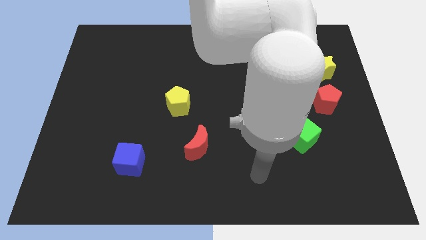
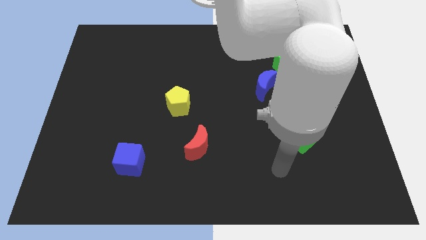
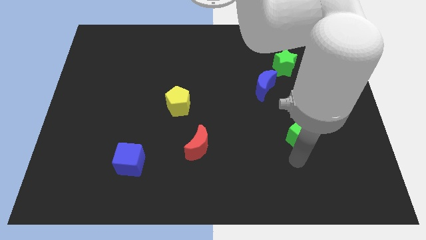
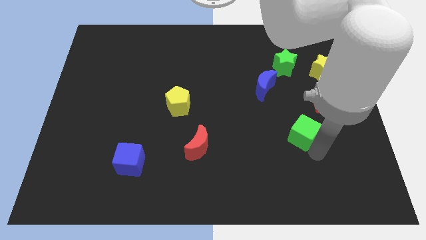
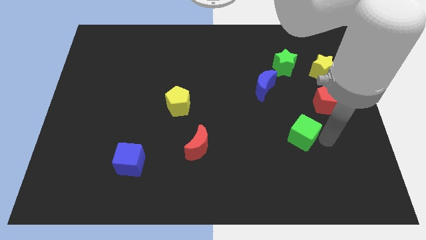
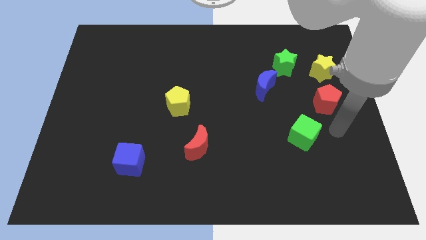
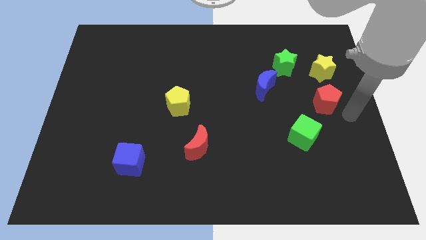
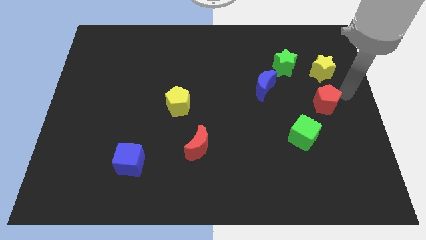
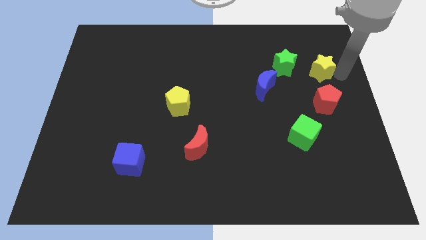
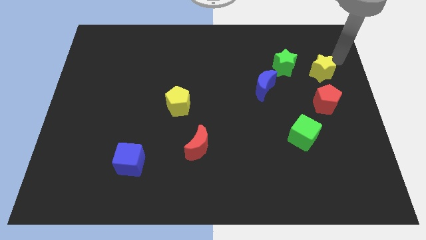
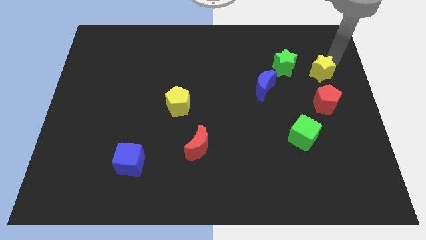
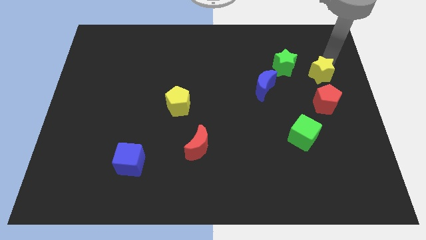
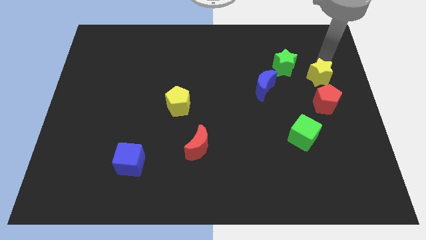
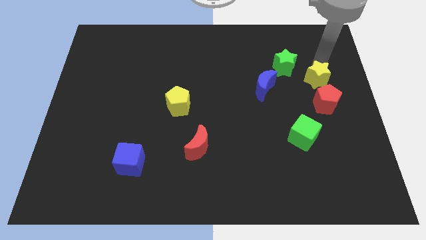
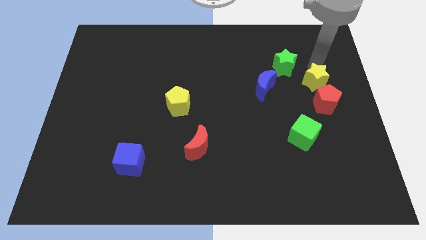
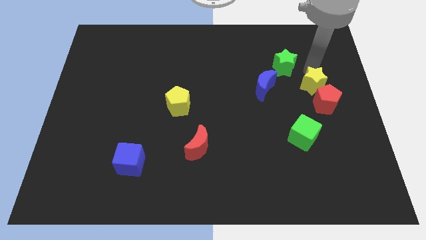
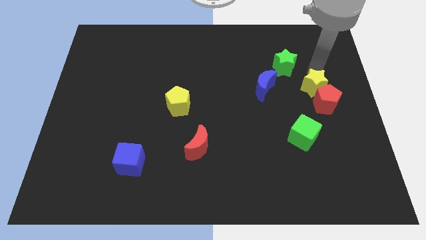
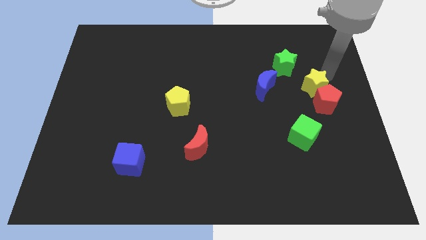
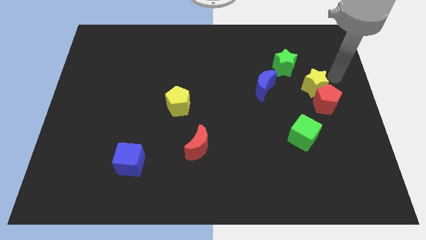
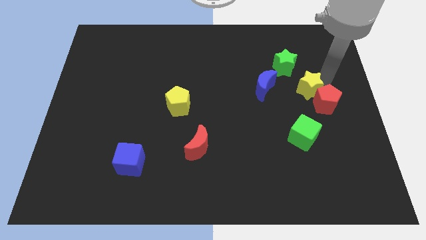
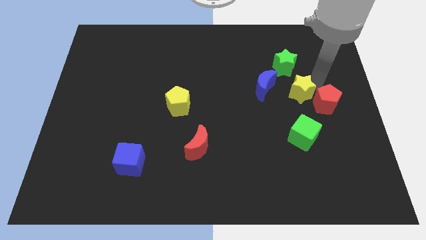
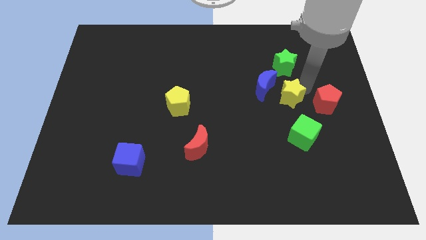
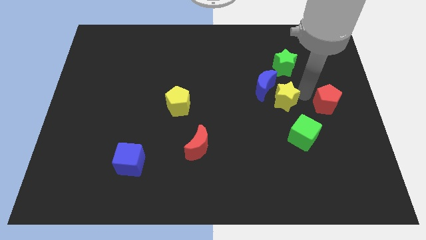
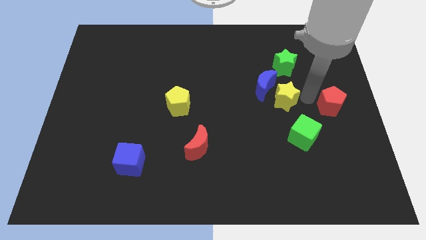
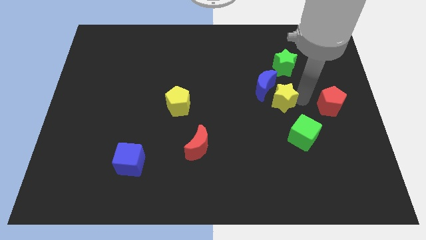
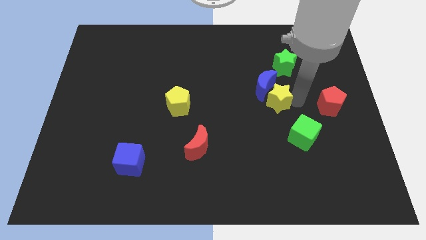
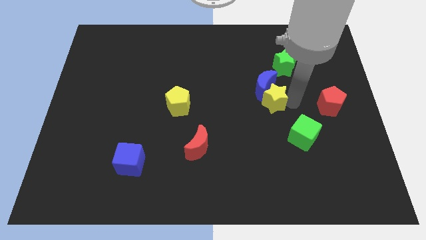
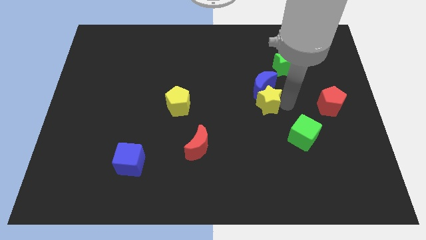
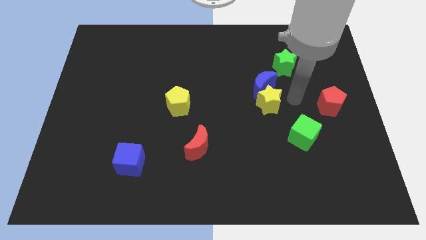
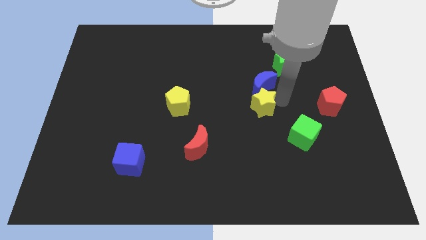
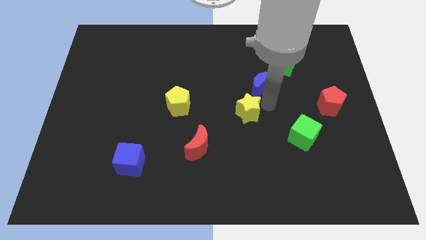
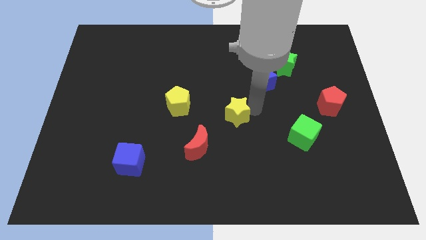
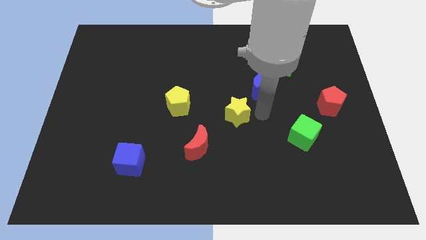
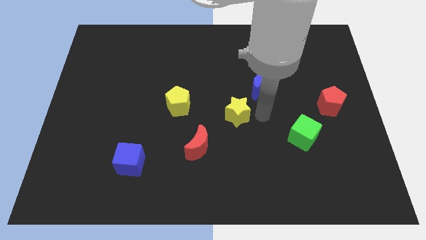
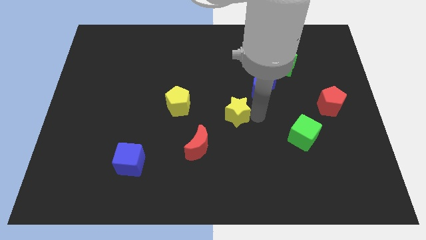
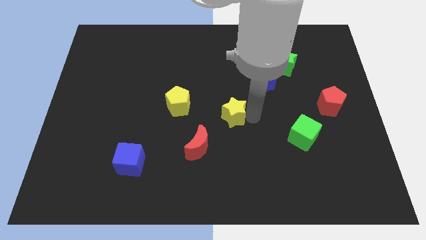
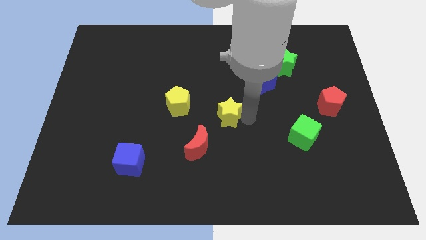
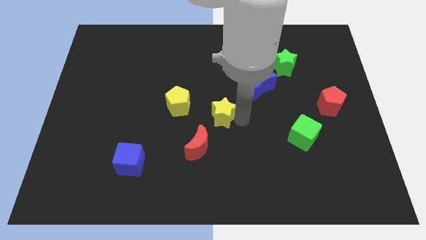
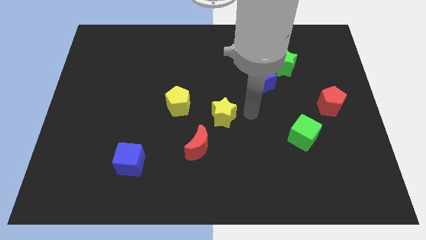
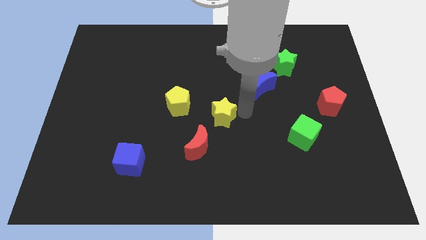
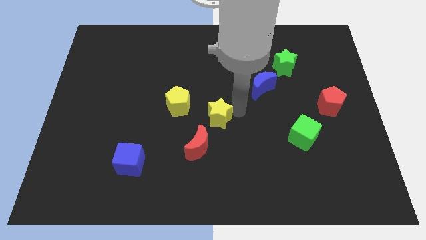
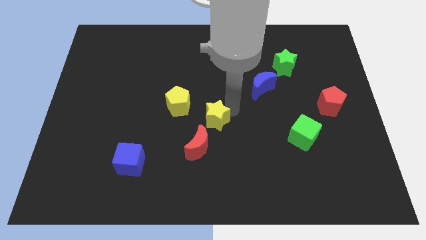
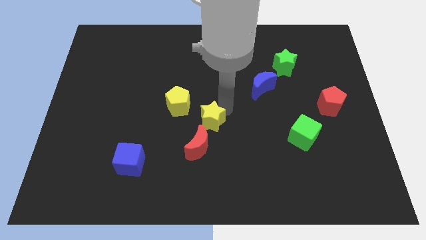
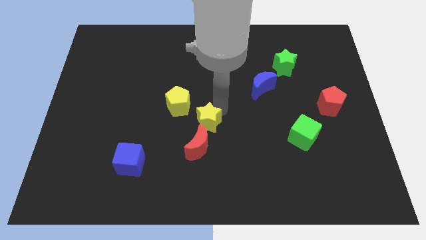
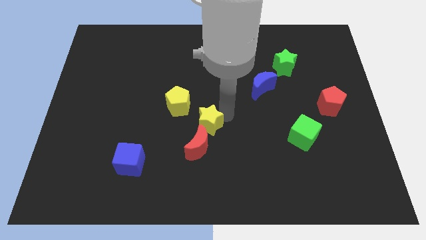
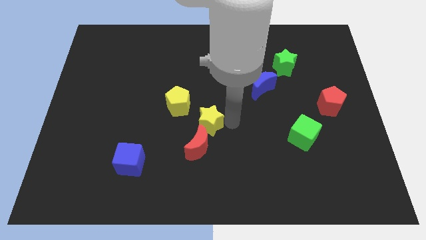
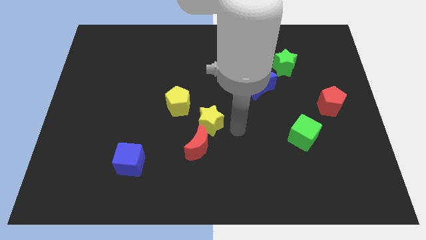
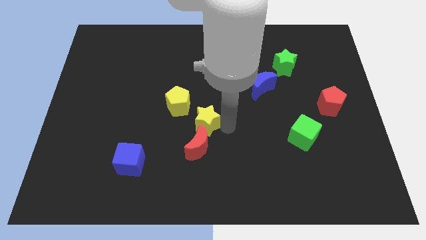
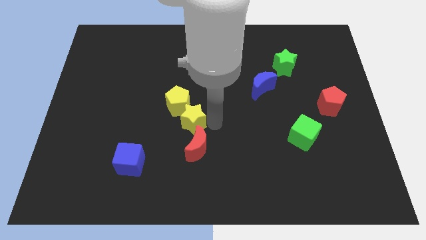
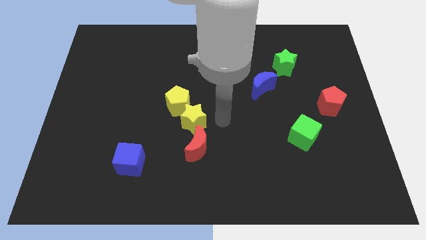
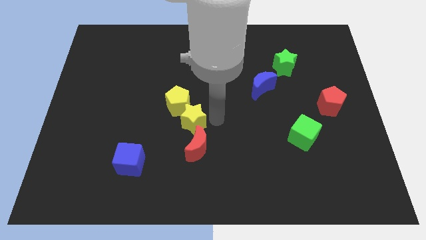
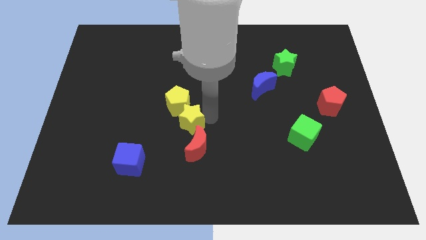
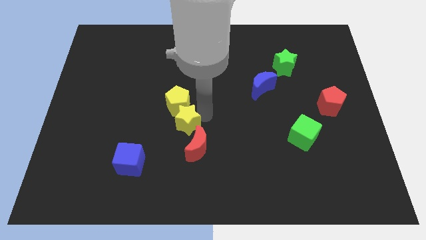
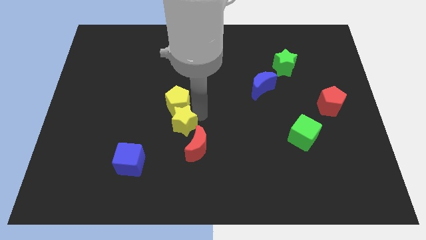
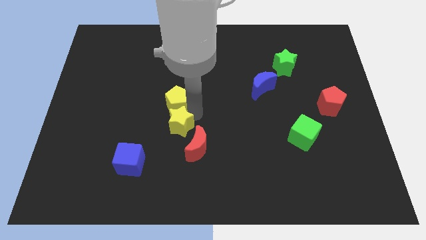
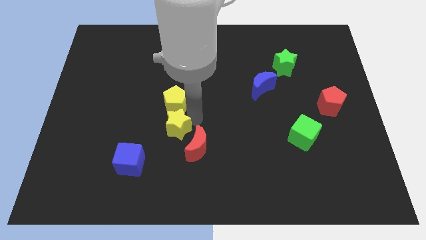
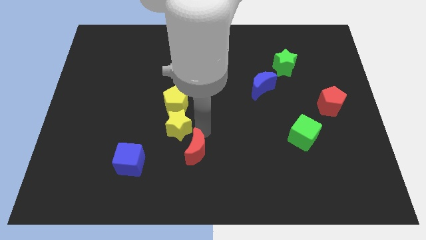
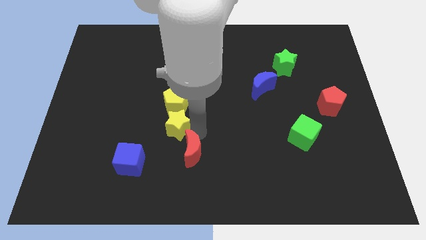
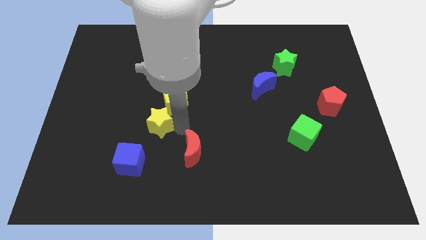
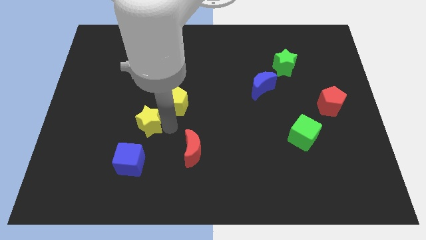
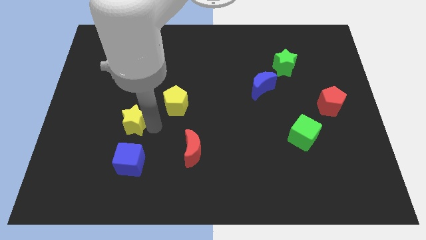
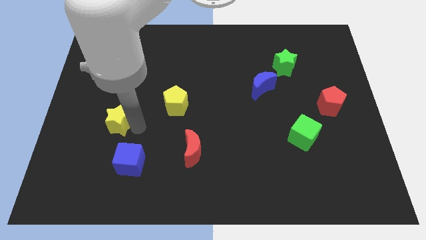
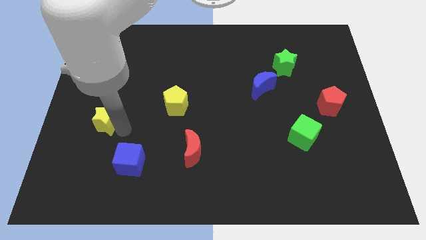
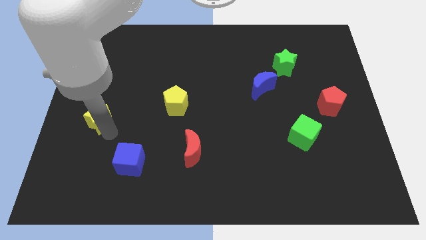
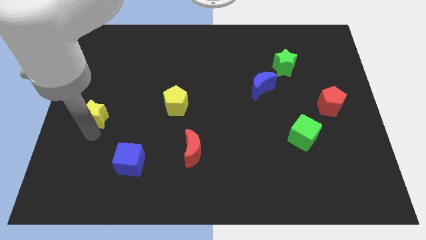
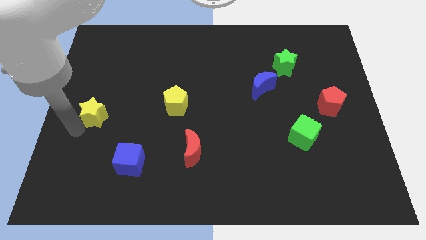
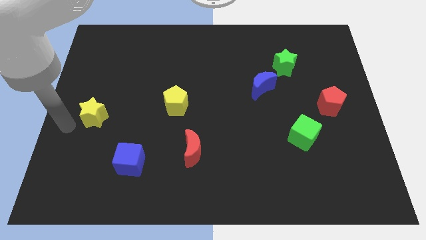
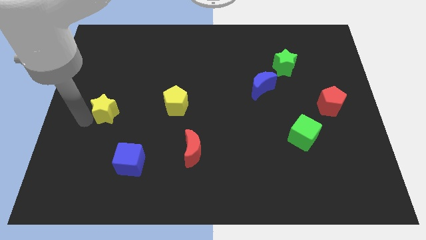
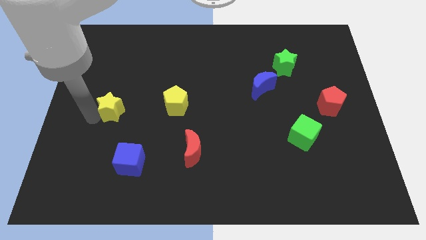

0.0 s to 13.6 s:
push the yellow star to the left side of the yellow pentagon

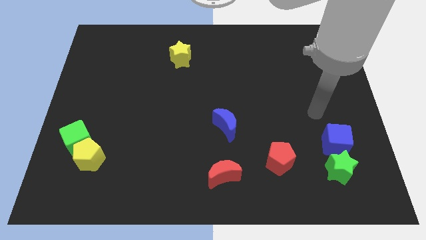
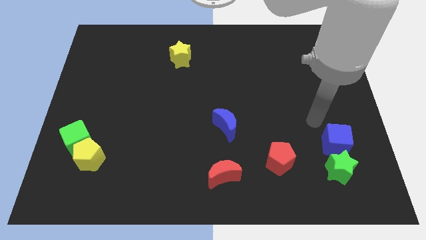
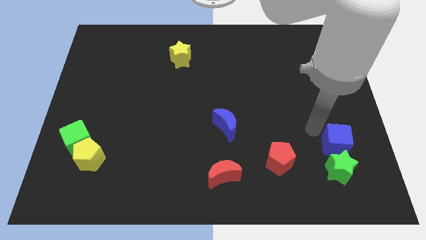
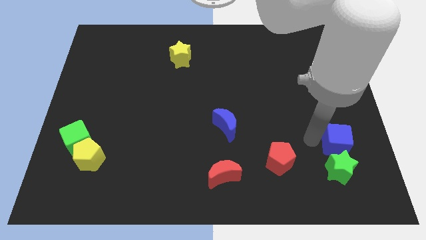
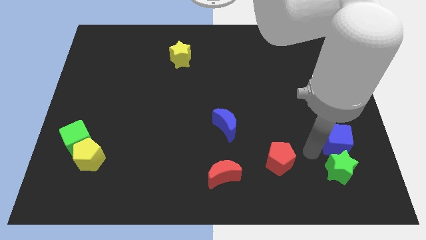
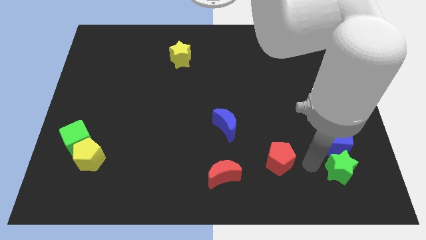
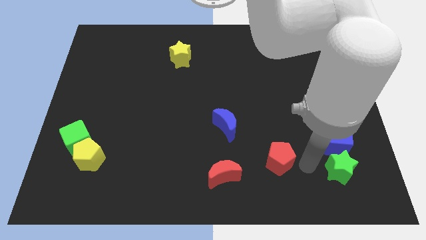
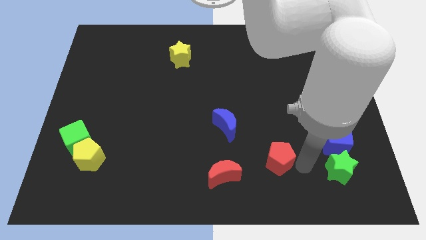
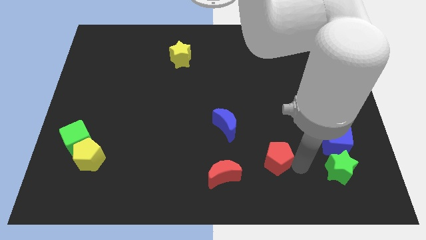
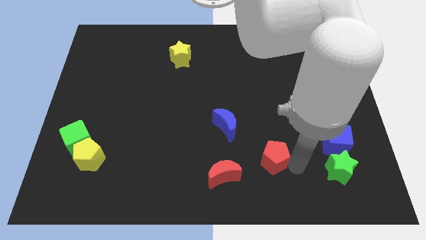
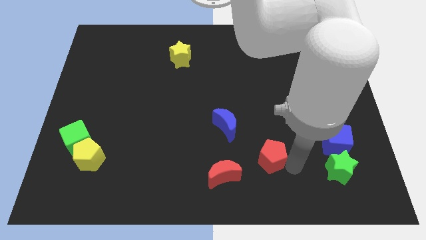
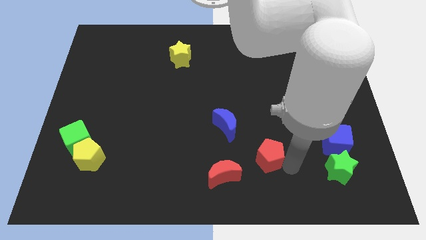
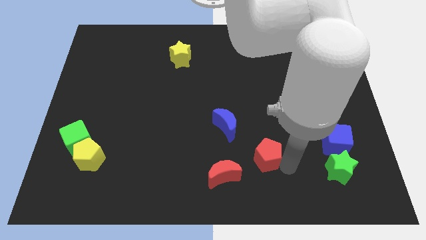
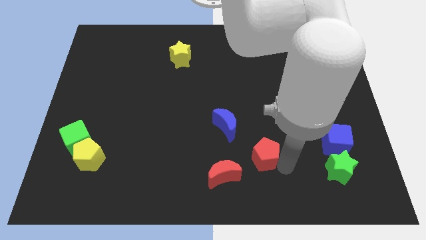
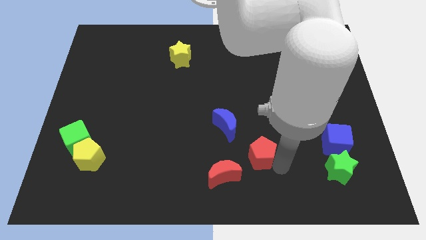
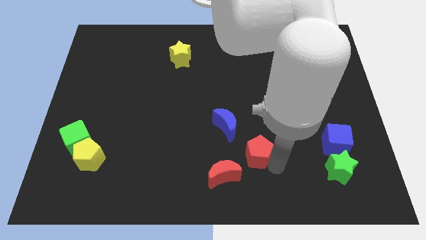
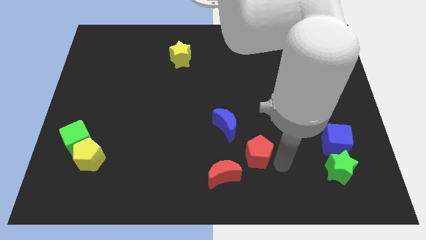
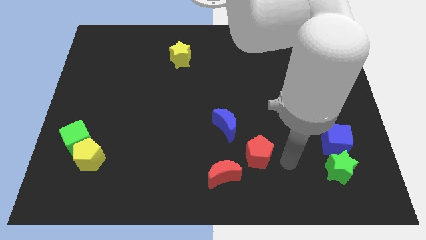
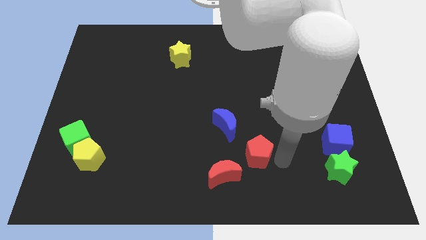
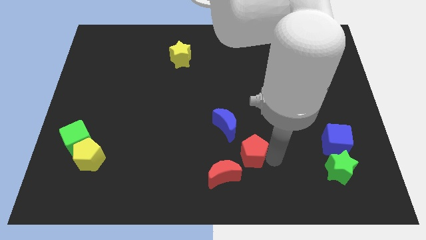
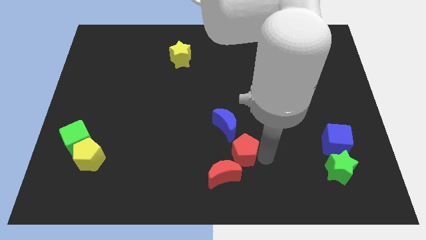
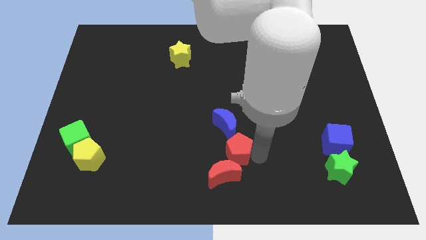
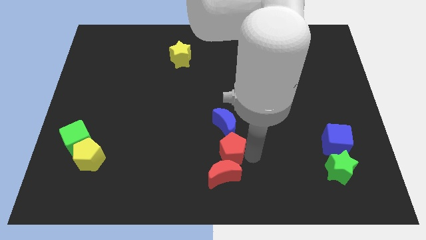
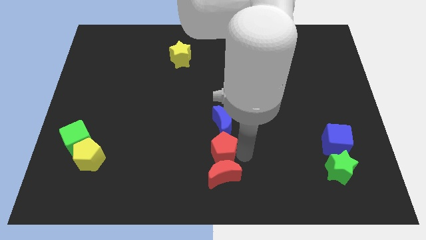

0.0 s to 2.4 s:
slide the red pentagon diagonally down and to the left of the blue moon
